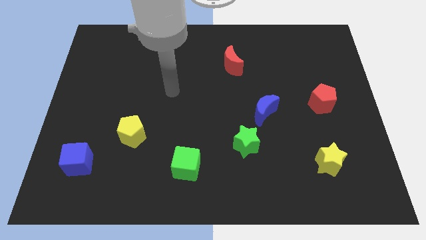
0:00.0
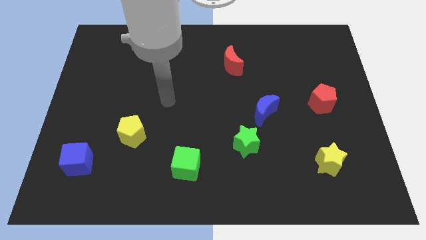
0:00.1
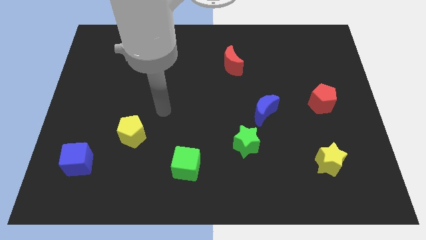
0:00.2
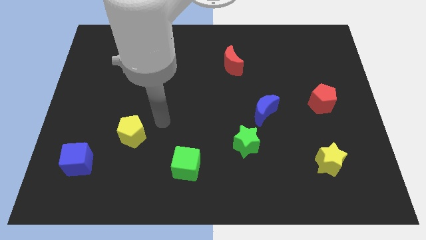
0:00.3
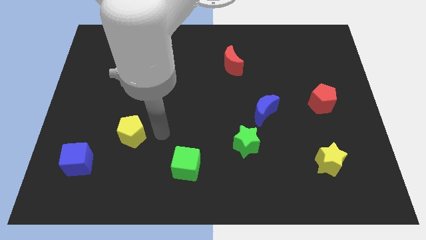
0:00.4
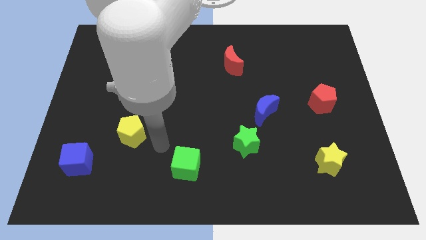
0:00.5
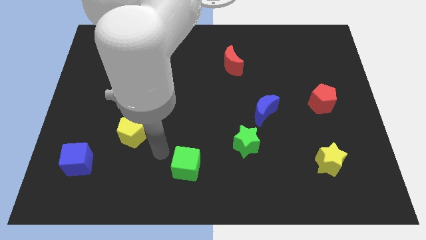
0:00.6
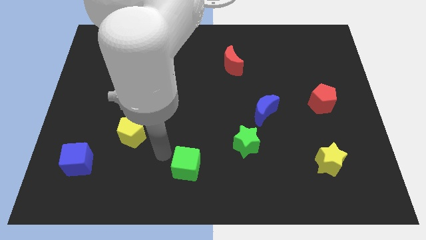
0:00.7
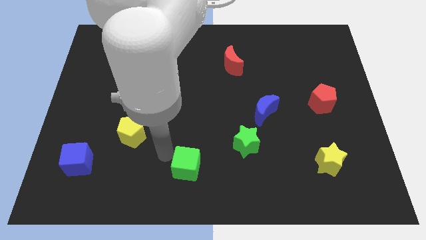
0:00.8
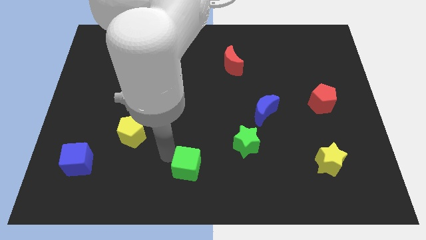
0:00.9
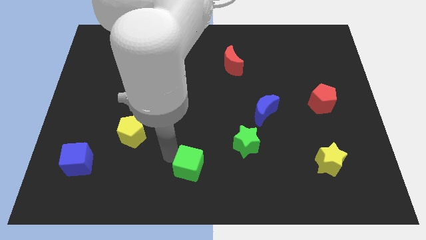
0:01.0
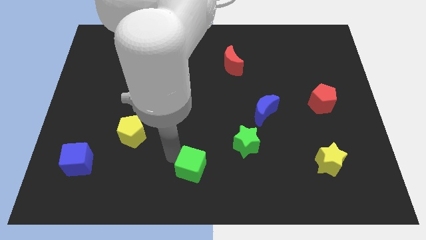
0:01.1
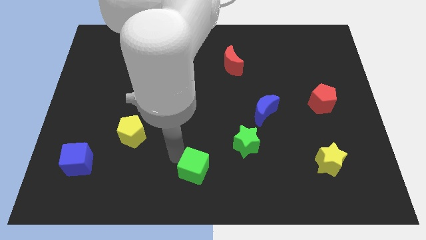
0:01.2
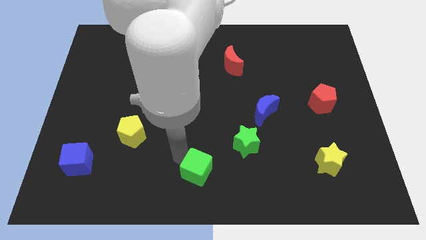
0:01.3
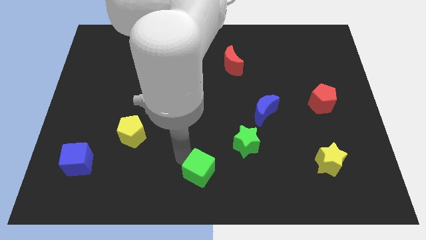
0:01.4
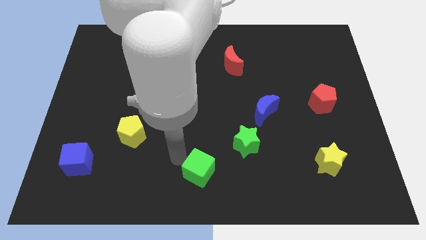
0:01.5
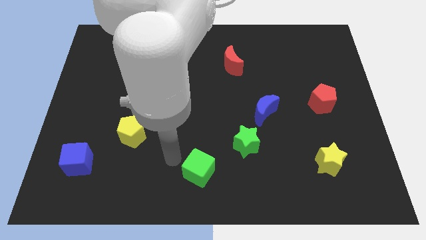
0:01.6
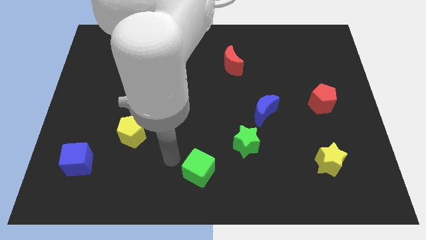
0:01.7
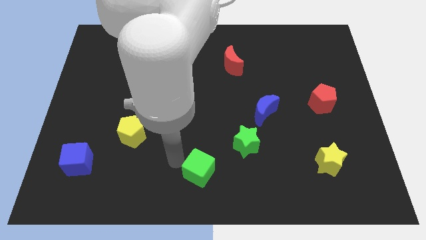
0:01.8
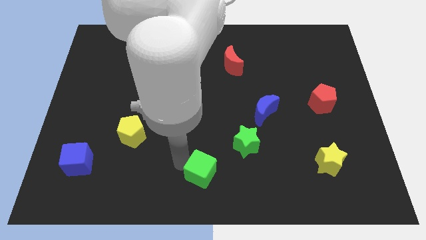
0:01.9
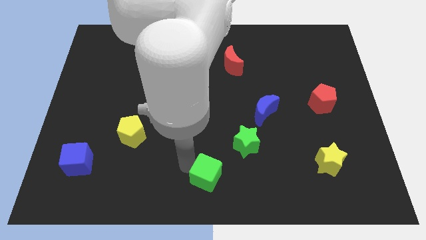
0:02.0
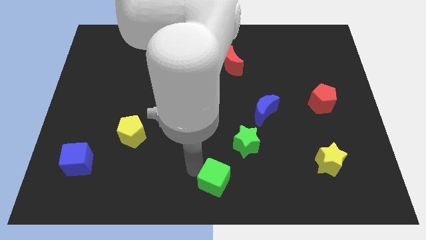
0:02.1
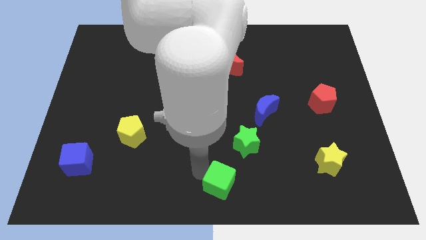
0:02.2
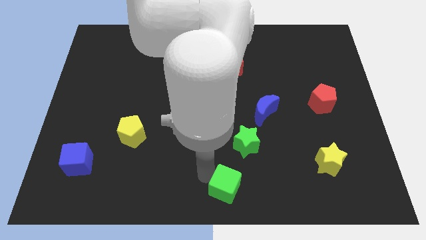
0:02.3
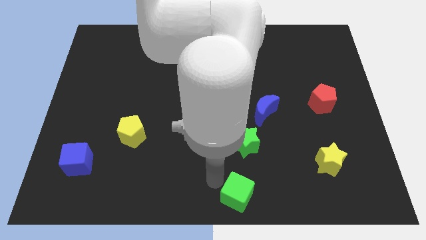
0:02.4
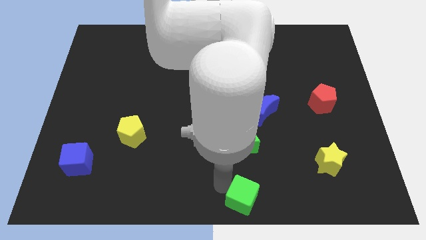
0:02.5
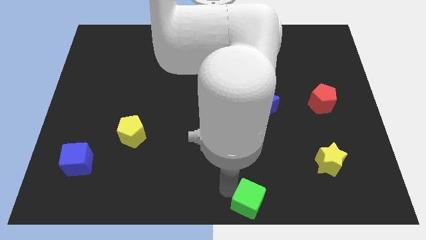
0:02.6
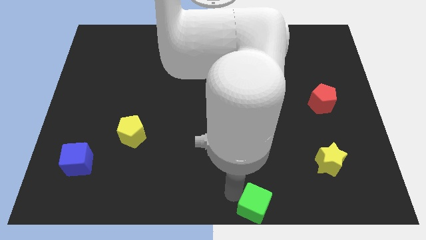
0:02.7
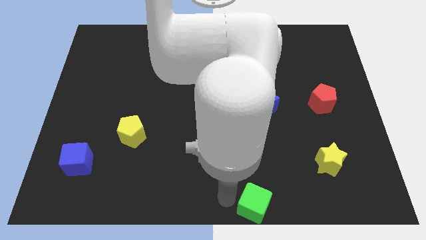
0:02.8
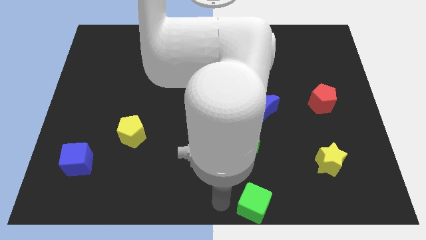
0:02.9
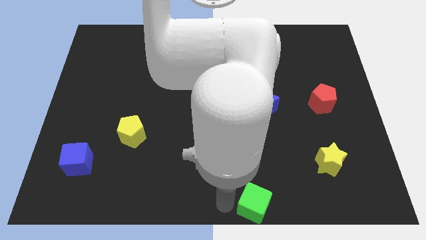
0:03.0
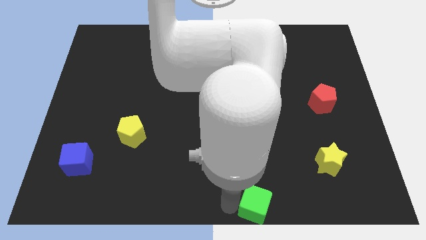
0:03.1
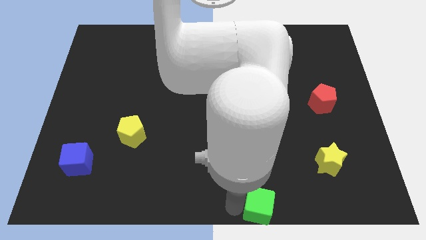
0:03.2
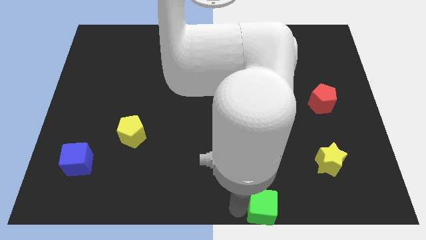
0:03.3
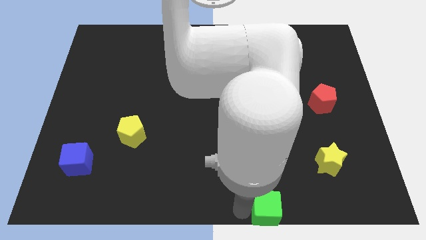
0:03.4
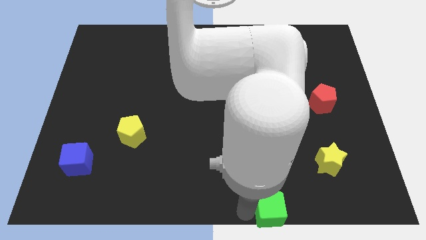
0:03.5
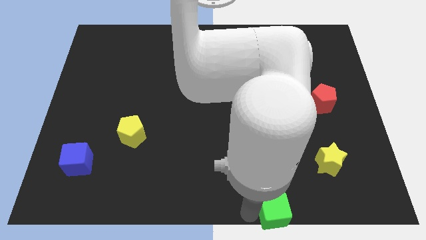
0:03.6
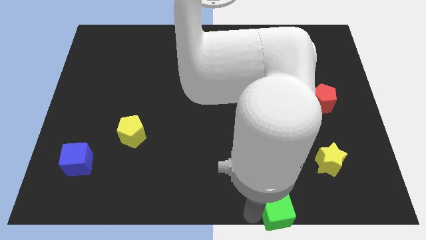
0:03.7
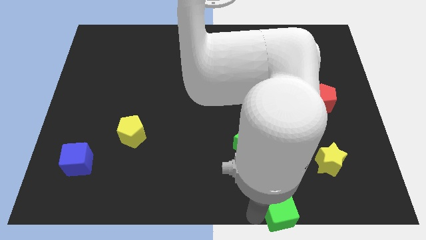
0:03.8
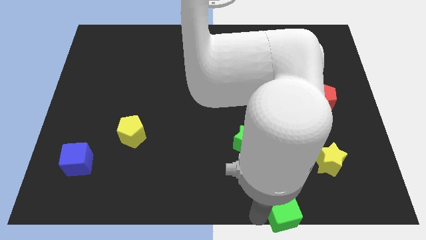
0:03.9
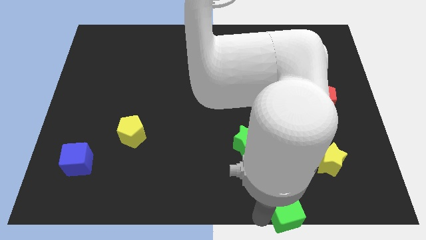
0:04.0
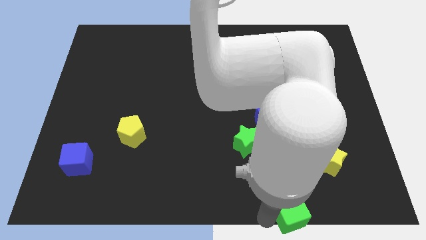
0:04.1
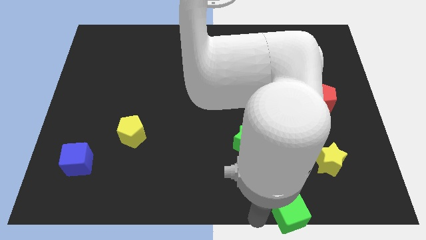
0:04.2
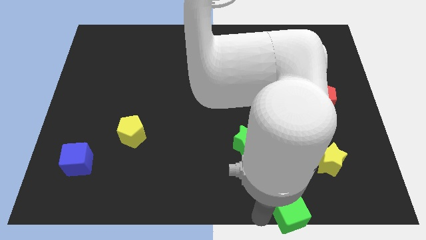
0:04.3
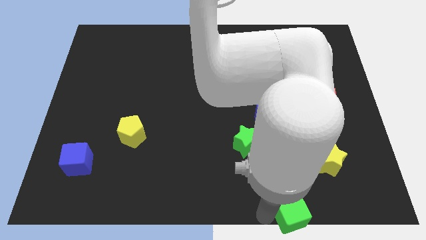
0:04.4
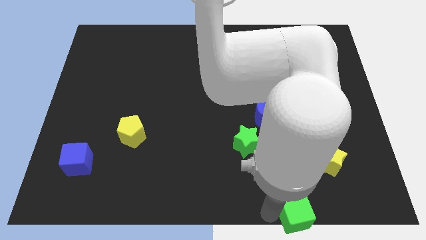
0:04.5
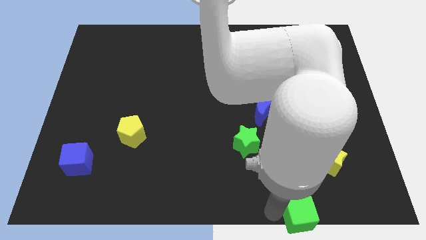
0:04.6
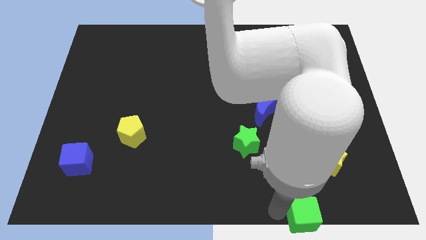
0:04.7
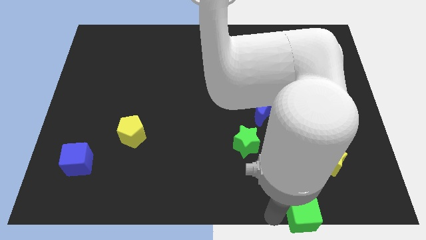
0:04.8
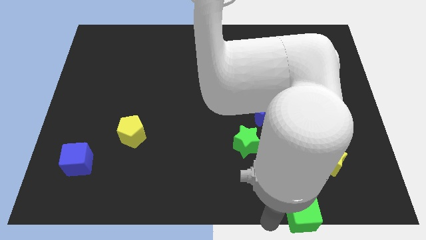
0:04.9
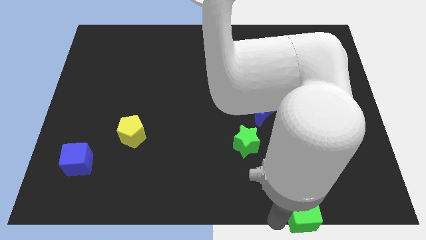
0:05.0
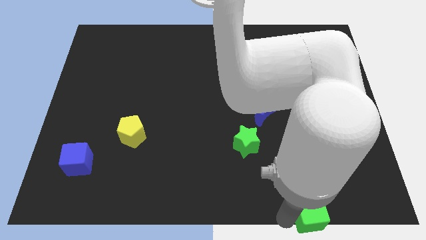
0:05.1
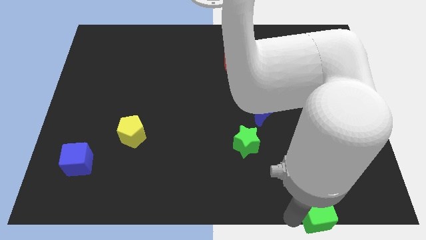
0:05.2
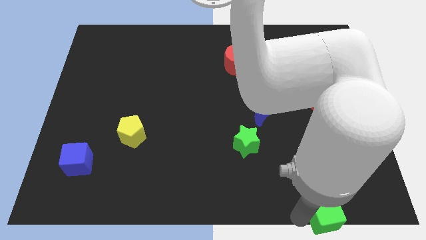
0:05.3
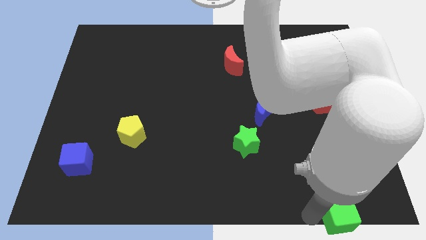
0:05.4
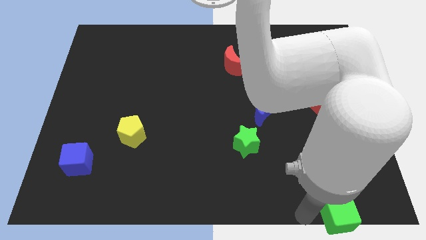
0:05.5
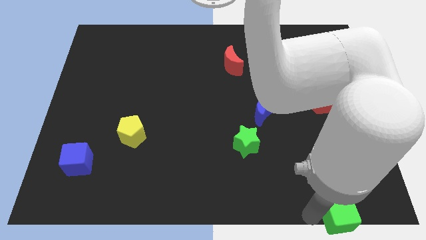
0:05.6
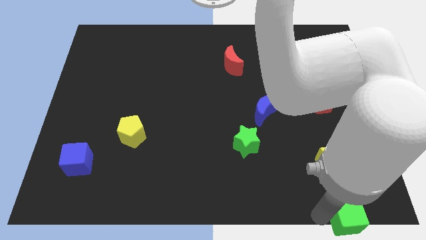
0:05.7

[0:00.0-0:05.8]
push the green cube to the bottom right

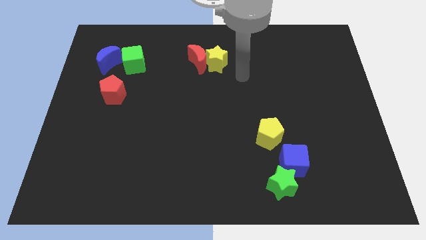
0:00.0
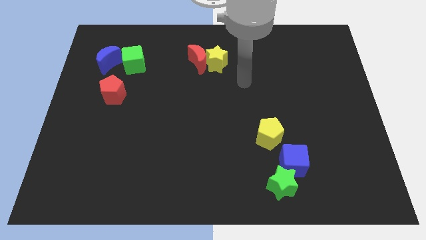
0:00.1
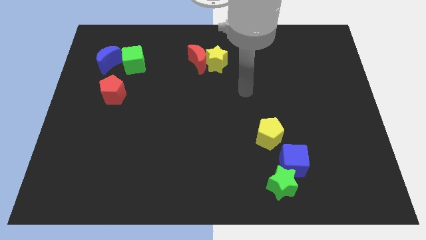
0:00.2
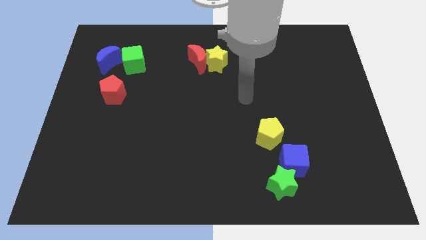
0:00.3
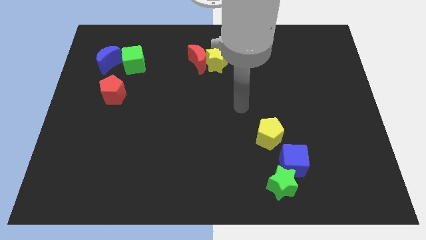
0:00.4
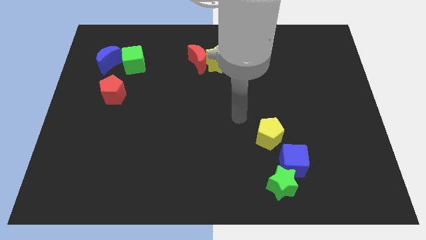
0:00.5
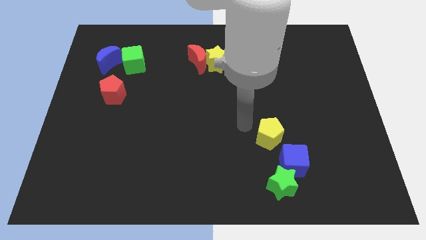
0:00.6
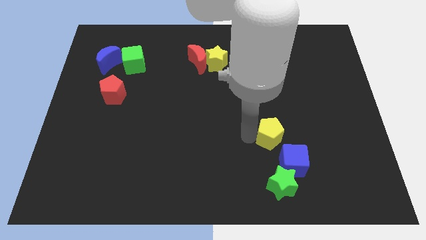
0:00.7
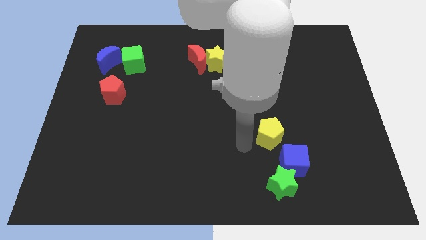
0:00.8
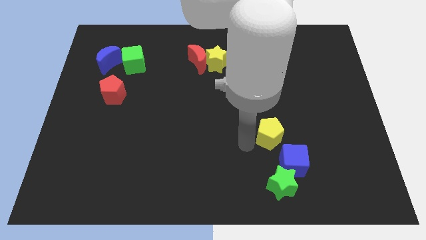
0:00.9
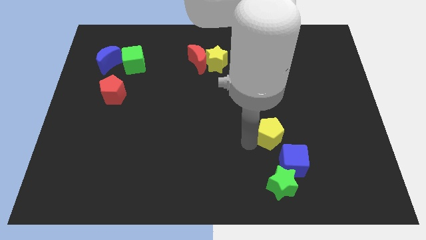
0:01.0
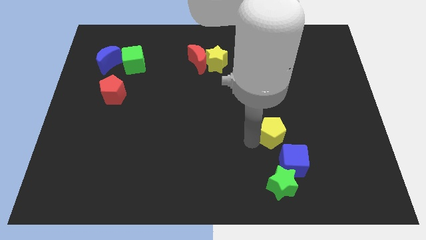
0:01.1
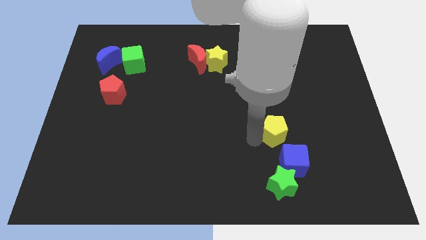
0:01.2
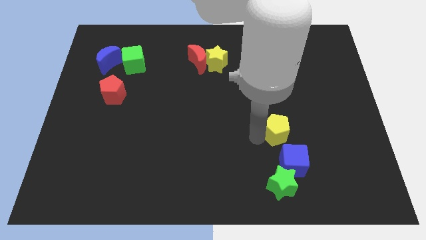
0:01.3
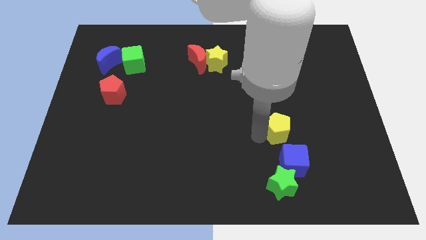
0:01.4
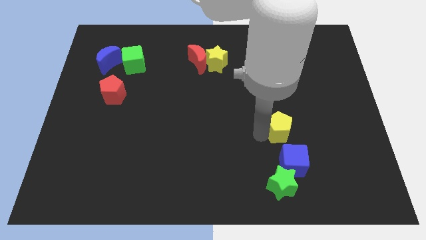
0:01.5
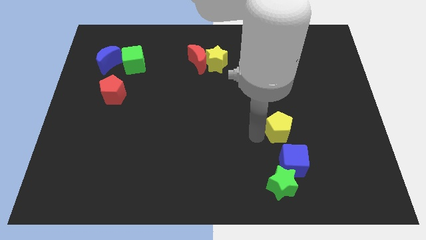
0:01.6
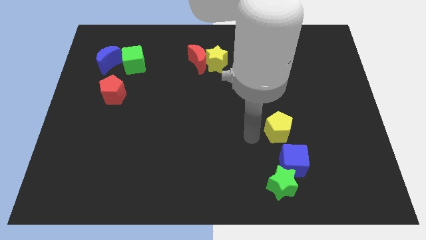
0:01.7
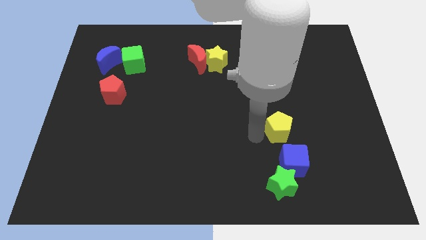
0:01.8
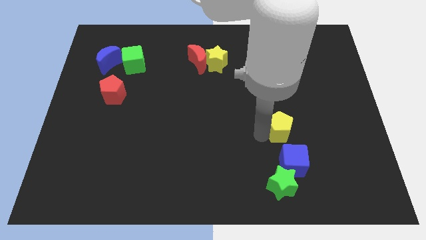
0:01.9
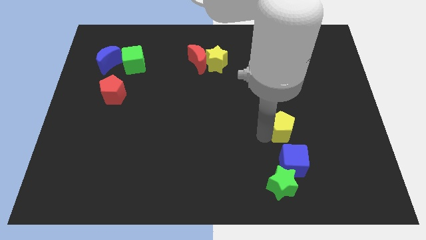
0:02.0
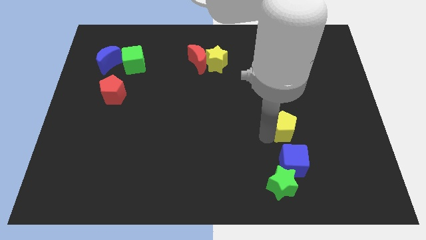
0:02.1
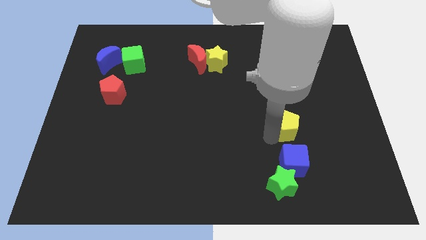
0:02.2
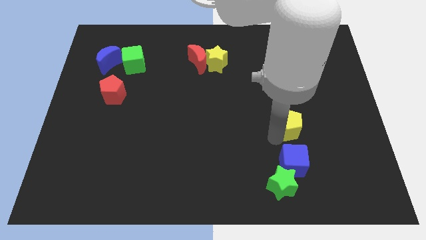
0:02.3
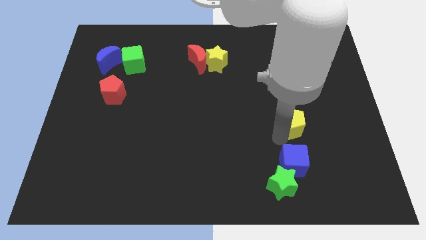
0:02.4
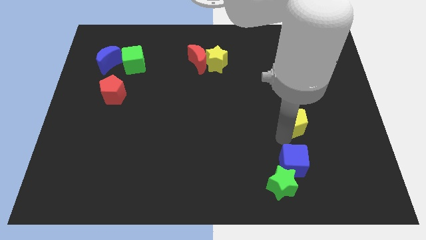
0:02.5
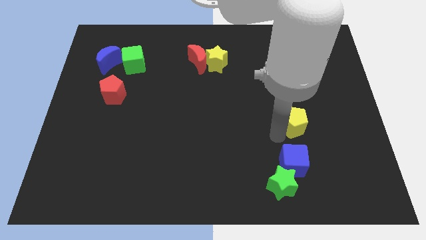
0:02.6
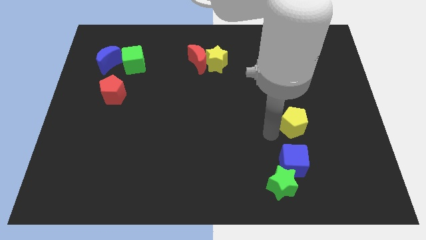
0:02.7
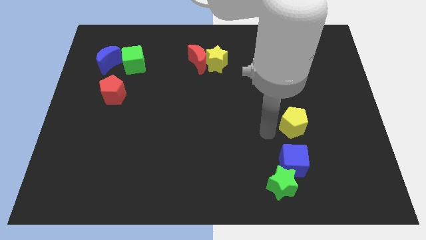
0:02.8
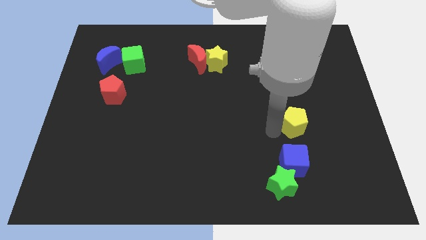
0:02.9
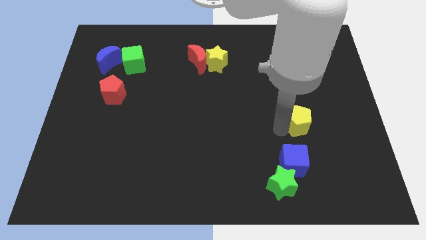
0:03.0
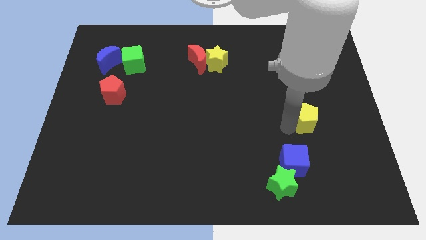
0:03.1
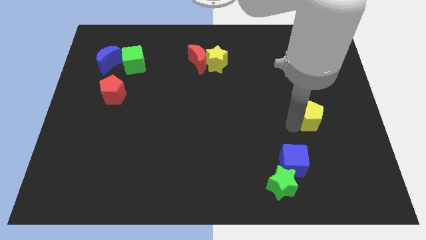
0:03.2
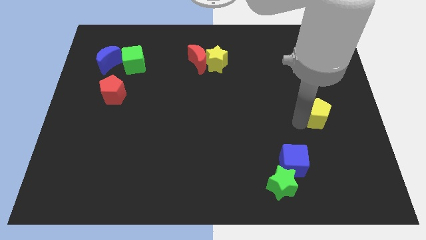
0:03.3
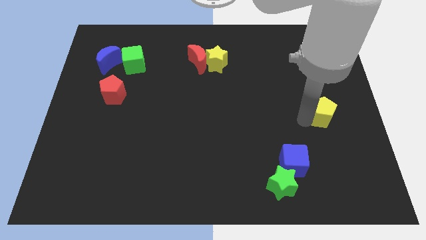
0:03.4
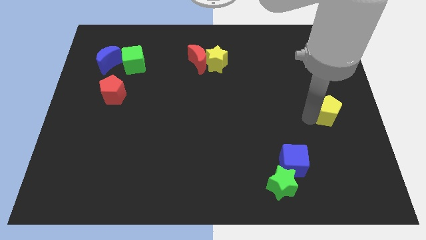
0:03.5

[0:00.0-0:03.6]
put the yellow pentagon to the center right
